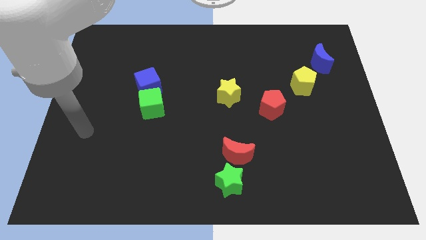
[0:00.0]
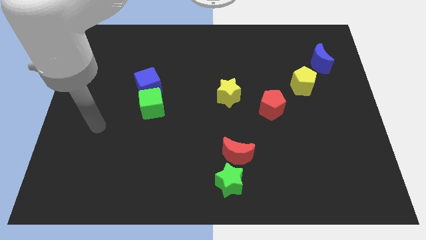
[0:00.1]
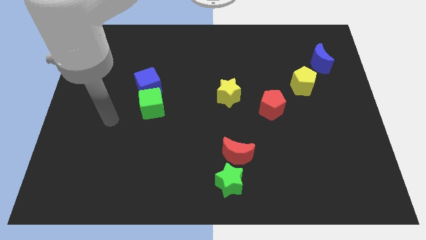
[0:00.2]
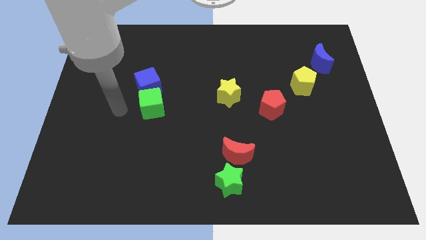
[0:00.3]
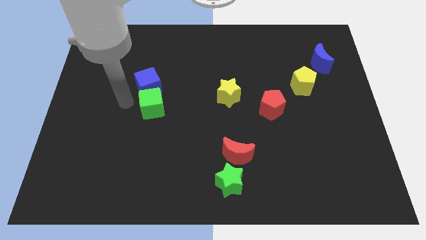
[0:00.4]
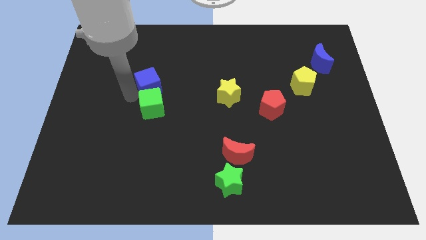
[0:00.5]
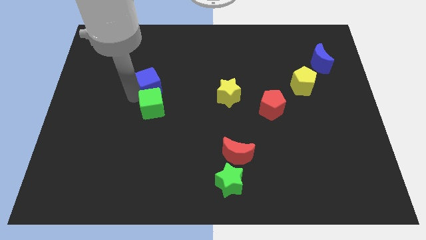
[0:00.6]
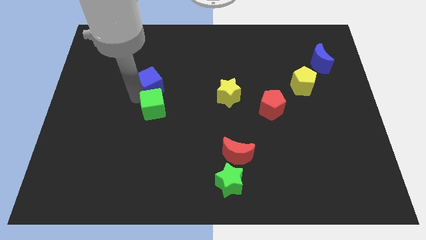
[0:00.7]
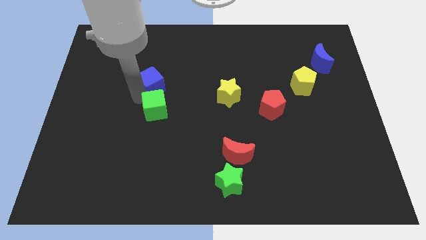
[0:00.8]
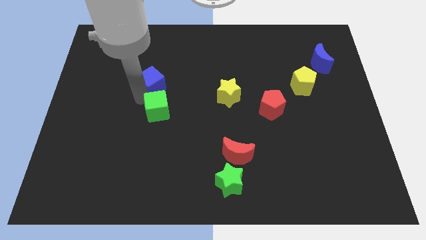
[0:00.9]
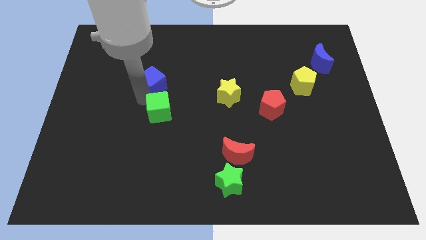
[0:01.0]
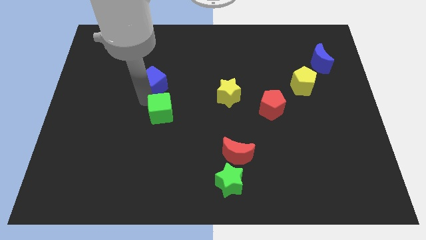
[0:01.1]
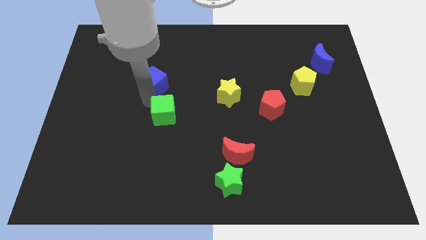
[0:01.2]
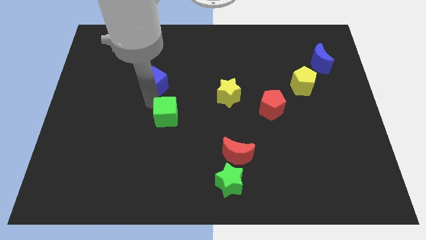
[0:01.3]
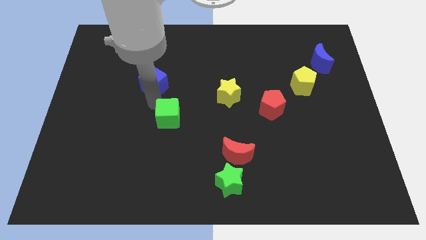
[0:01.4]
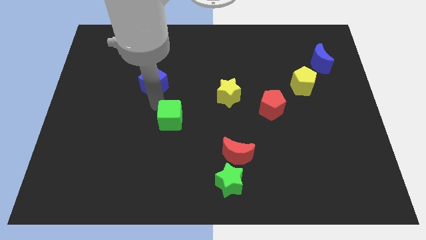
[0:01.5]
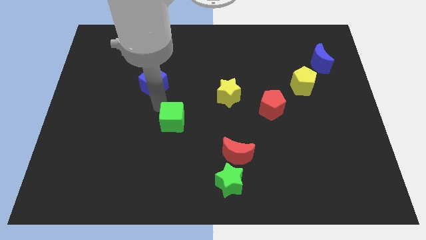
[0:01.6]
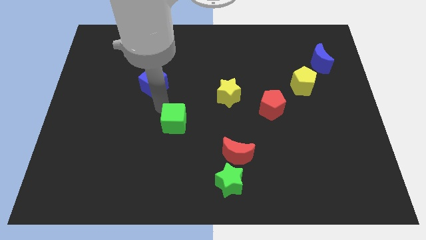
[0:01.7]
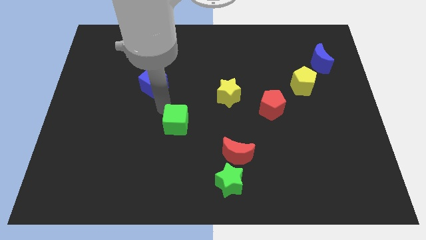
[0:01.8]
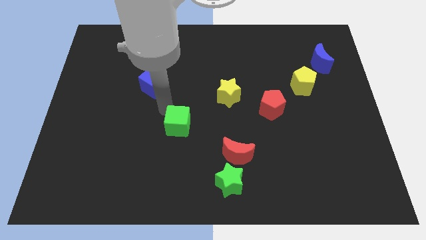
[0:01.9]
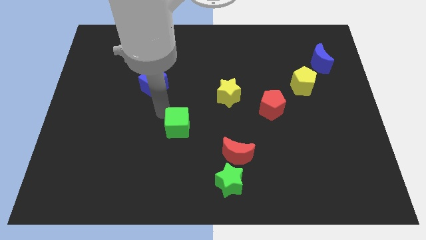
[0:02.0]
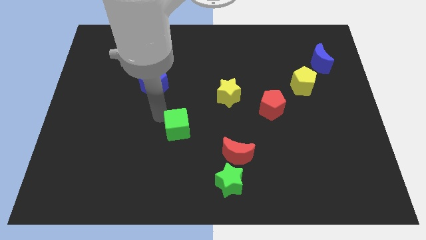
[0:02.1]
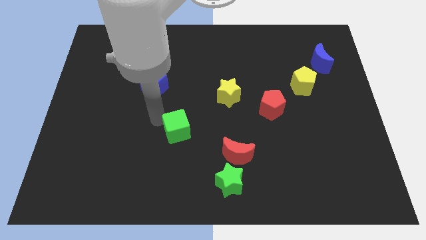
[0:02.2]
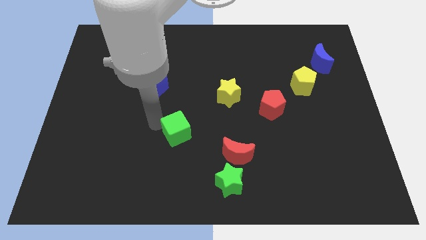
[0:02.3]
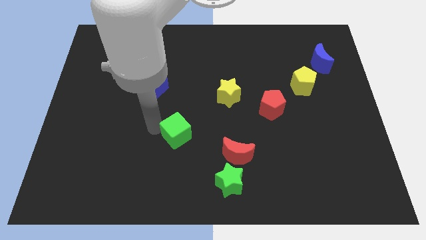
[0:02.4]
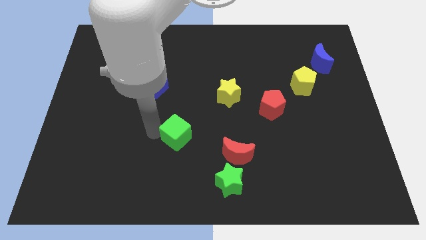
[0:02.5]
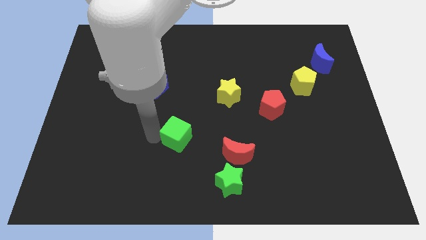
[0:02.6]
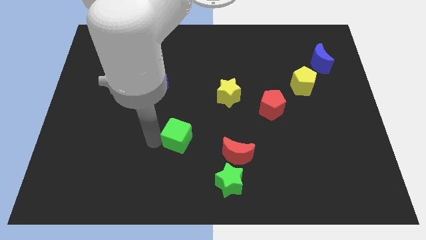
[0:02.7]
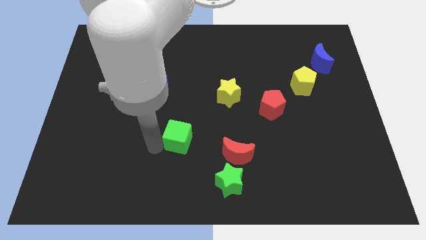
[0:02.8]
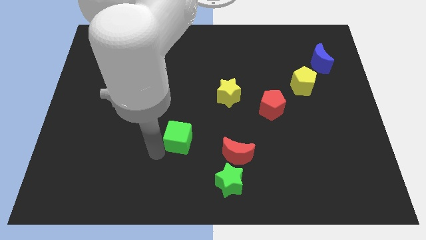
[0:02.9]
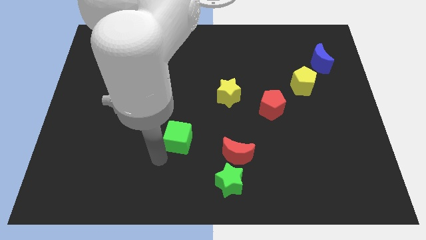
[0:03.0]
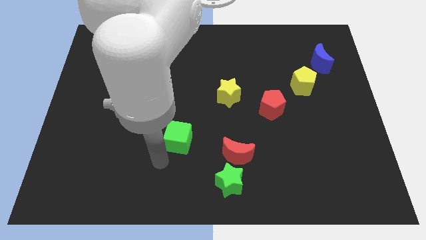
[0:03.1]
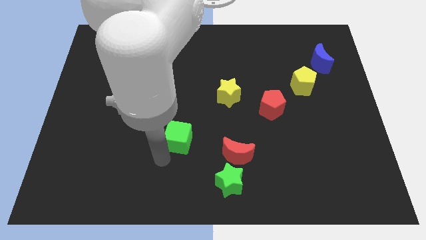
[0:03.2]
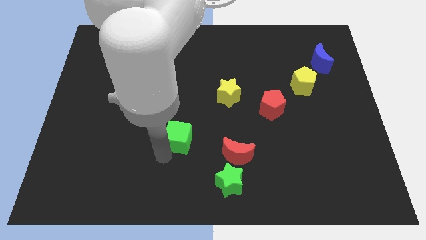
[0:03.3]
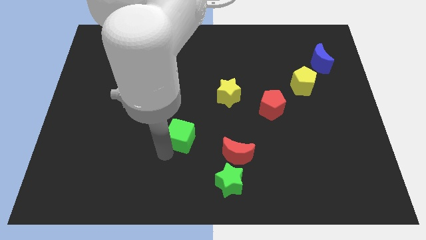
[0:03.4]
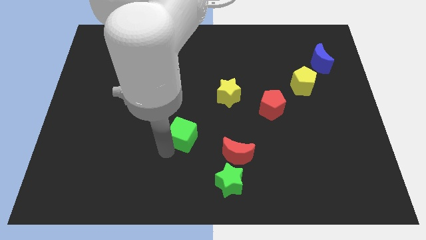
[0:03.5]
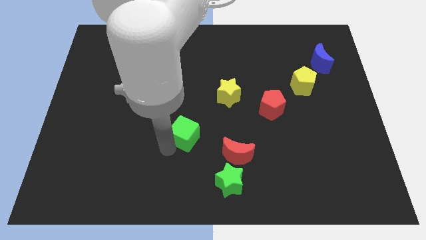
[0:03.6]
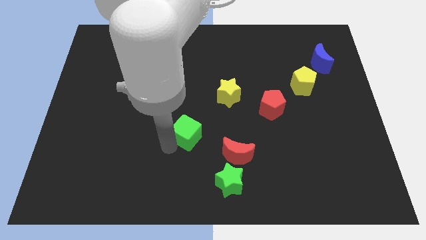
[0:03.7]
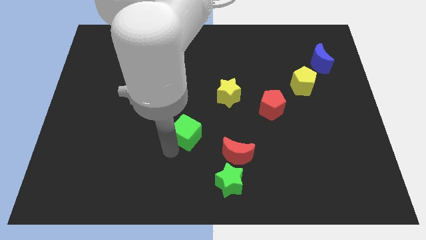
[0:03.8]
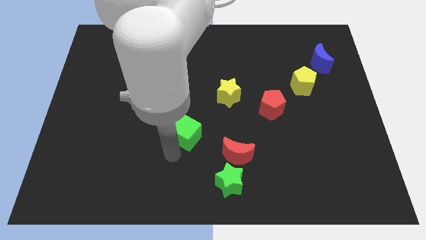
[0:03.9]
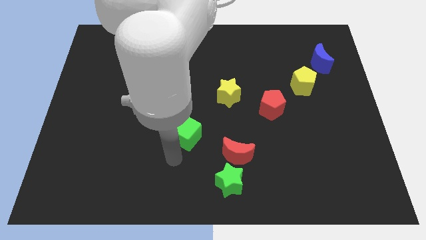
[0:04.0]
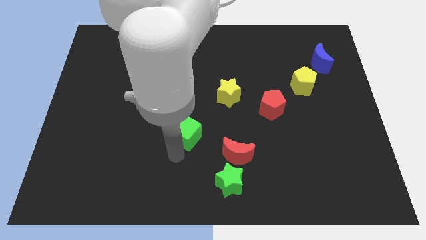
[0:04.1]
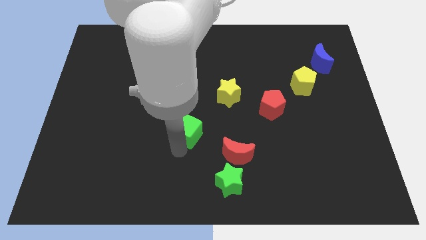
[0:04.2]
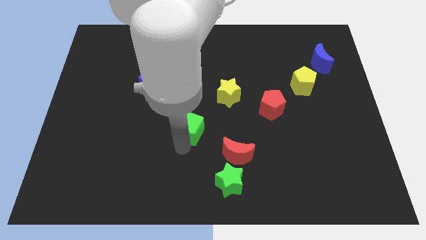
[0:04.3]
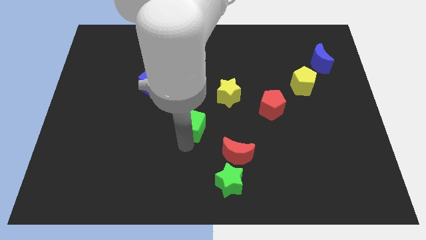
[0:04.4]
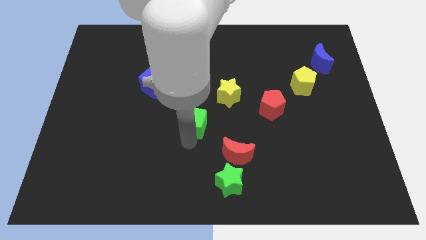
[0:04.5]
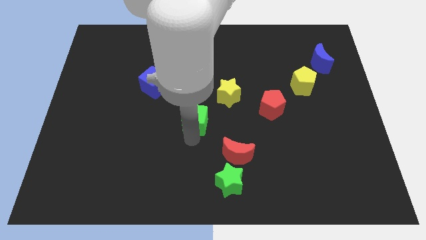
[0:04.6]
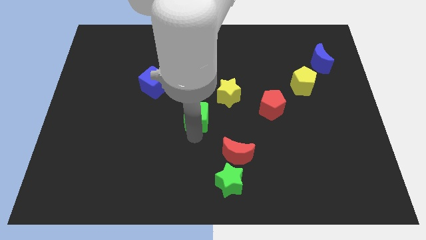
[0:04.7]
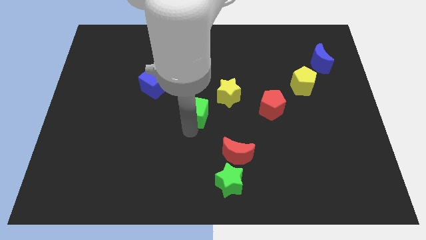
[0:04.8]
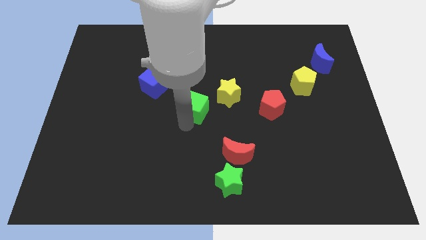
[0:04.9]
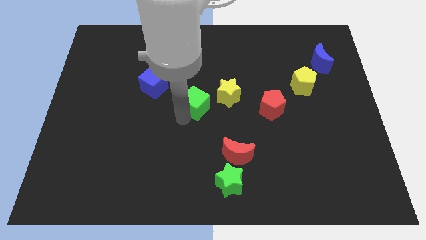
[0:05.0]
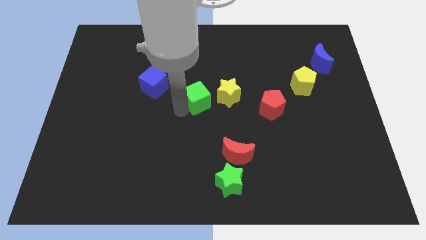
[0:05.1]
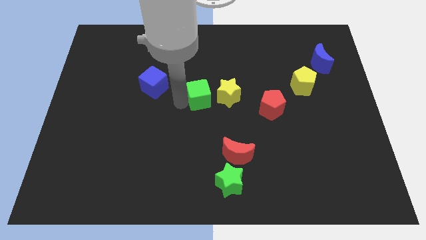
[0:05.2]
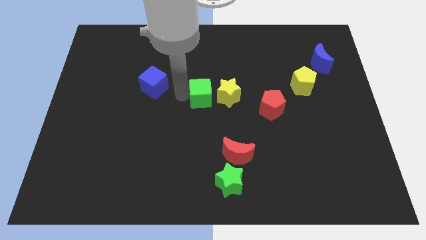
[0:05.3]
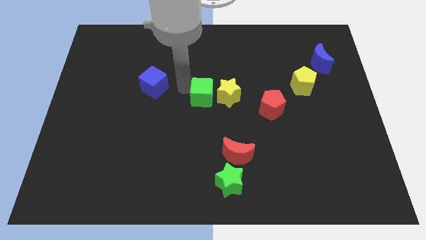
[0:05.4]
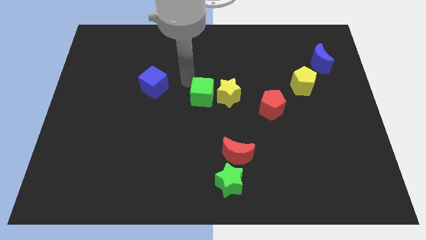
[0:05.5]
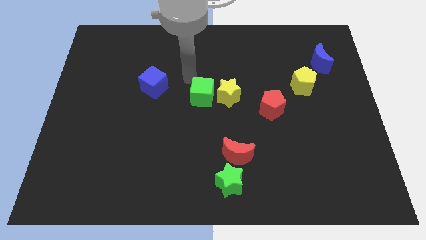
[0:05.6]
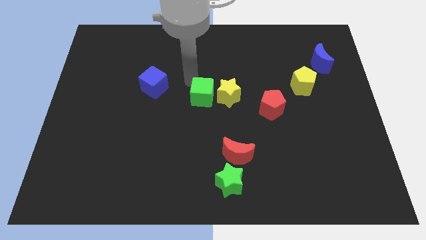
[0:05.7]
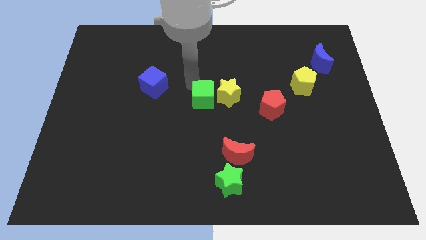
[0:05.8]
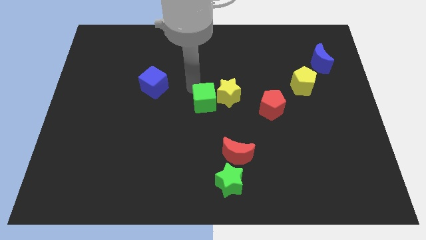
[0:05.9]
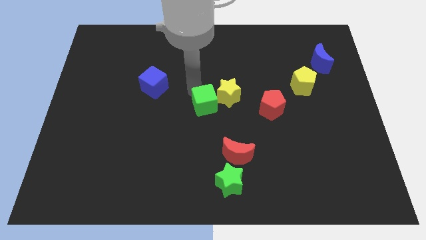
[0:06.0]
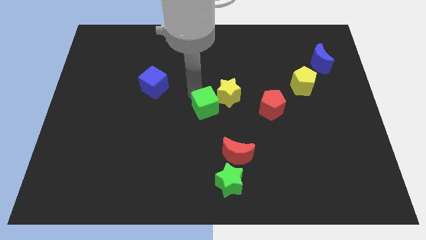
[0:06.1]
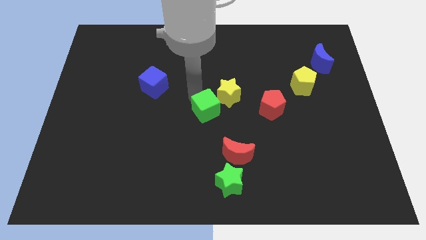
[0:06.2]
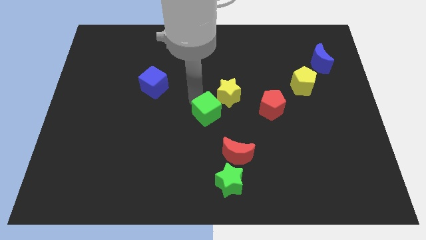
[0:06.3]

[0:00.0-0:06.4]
put the green cube to the bottom of the yellow star
